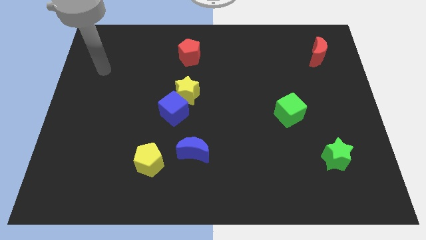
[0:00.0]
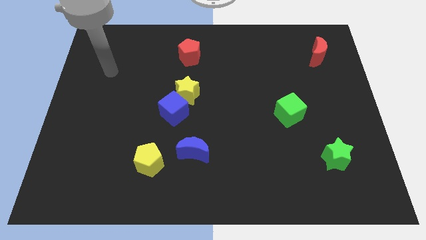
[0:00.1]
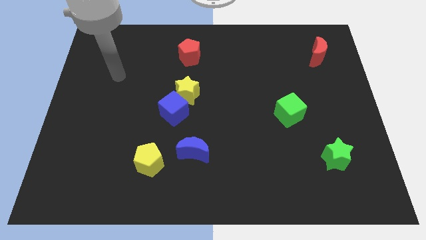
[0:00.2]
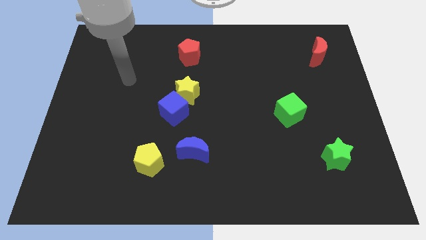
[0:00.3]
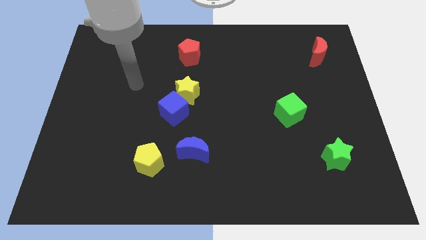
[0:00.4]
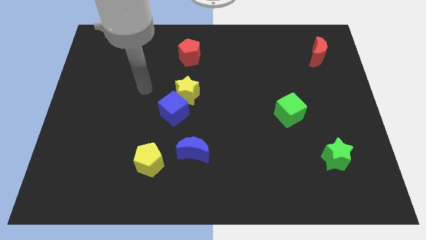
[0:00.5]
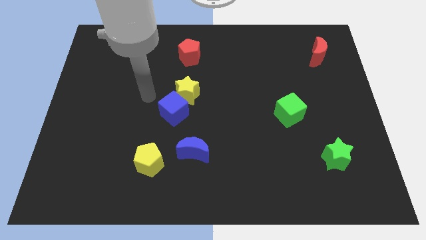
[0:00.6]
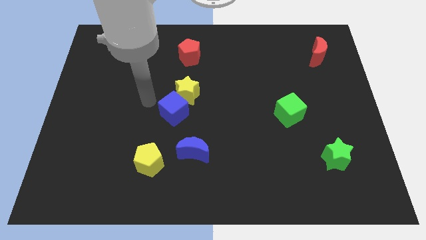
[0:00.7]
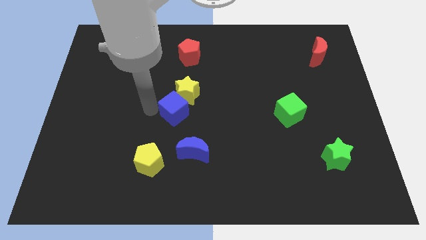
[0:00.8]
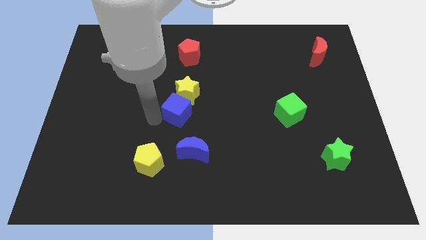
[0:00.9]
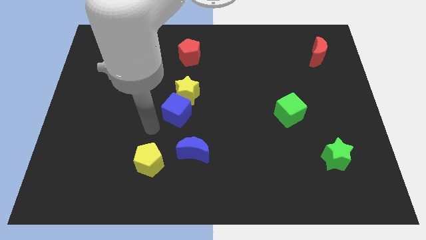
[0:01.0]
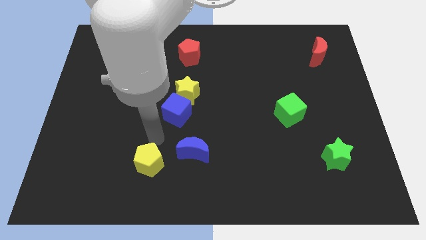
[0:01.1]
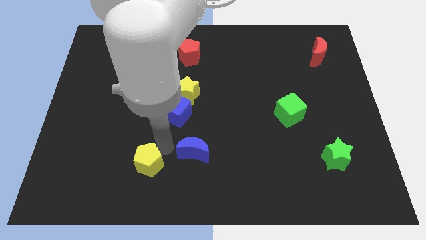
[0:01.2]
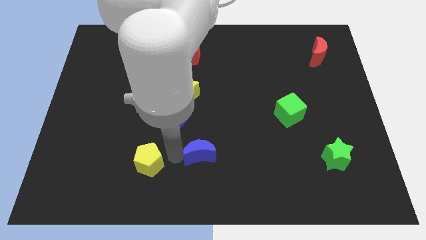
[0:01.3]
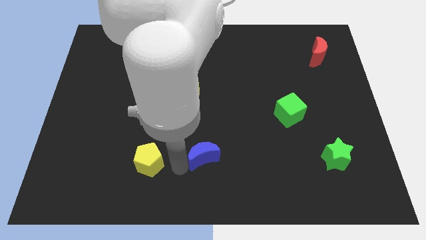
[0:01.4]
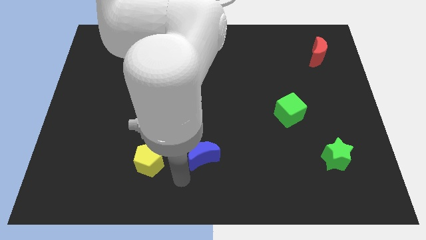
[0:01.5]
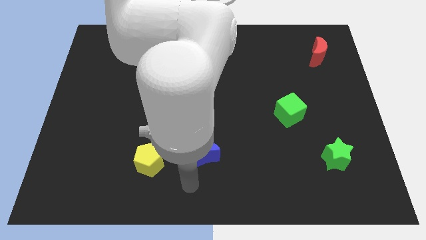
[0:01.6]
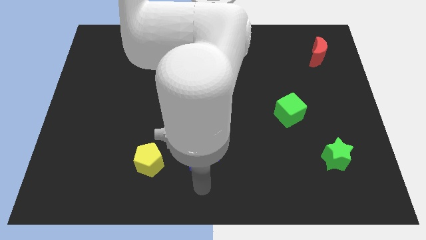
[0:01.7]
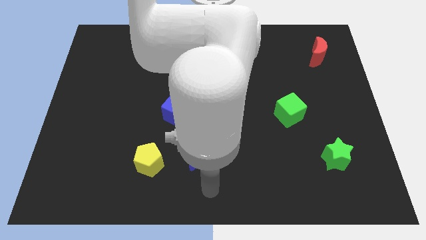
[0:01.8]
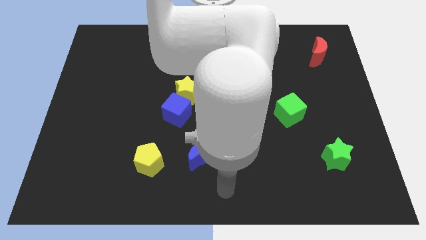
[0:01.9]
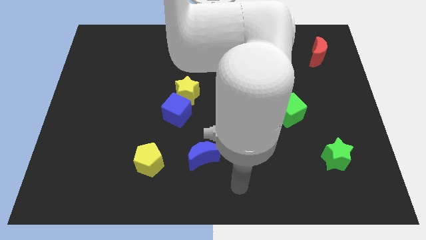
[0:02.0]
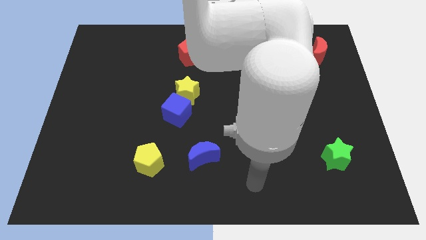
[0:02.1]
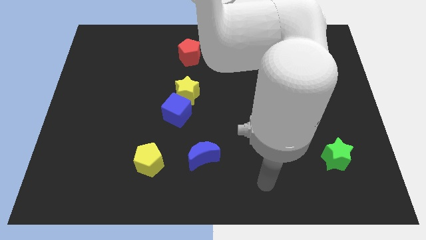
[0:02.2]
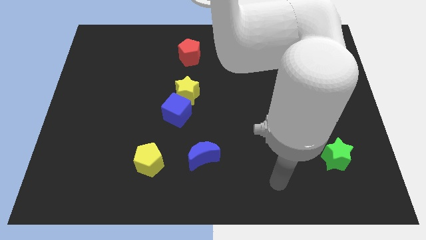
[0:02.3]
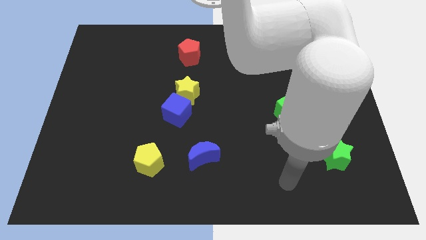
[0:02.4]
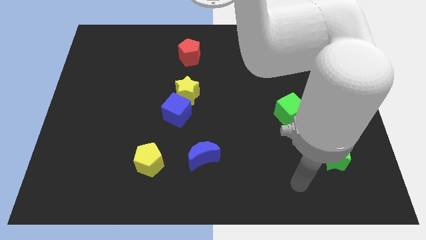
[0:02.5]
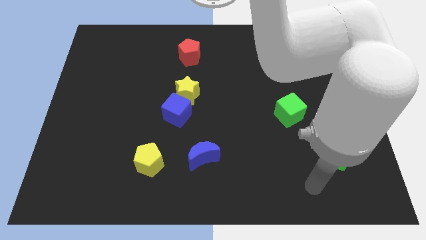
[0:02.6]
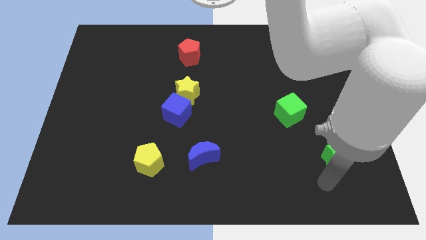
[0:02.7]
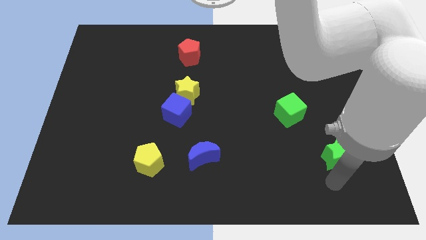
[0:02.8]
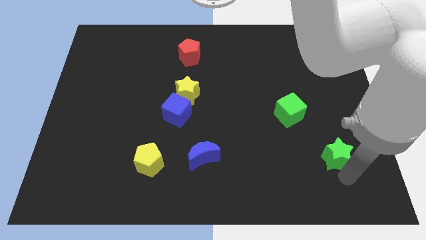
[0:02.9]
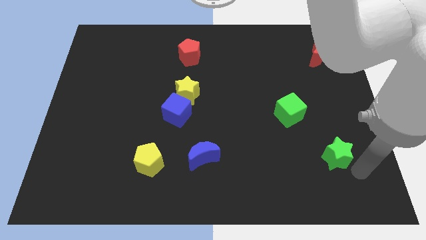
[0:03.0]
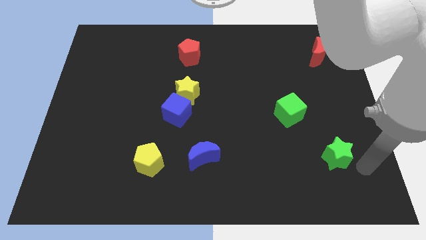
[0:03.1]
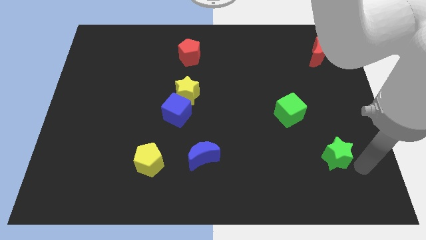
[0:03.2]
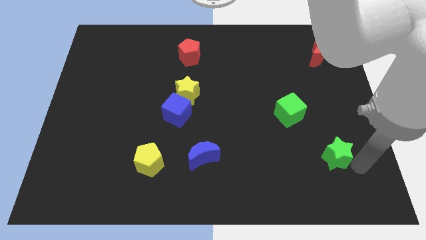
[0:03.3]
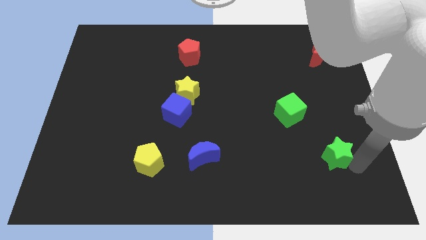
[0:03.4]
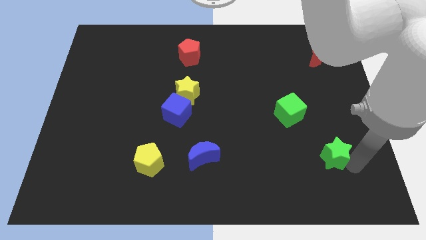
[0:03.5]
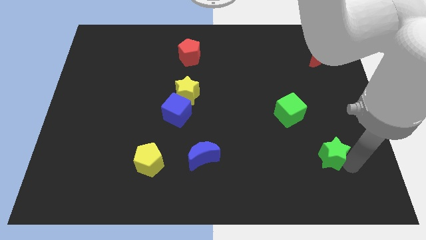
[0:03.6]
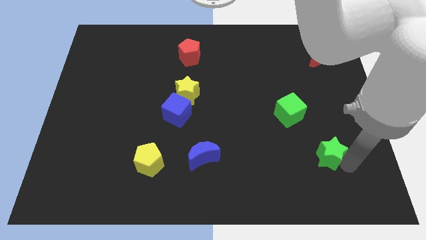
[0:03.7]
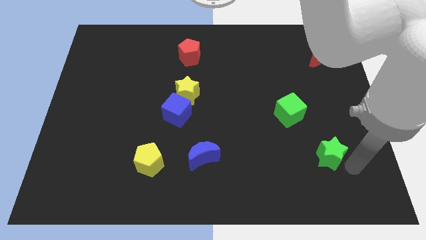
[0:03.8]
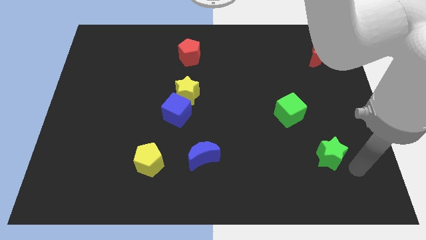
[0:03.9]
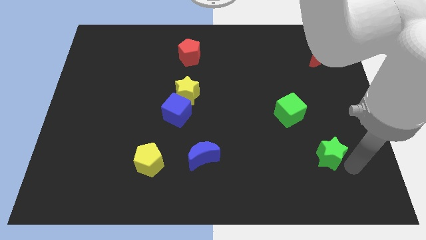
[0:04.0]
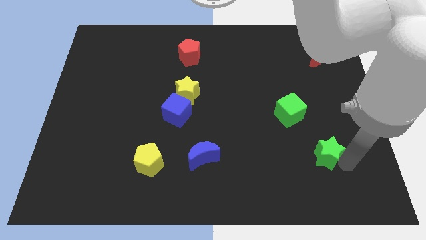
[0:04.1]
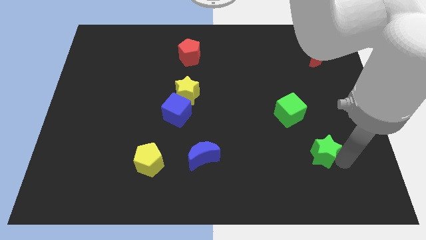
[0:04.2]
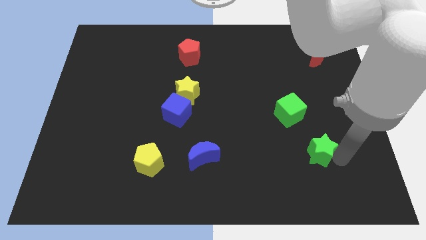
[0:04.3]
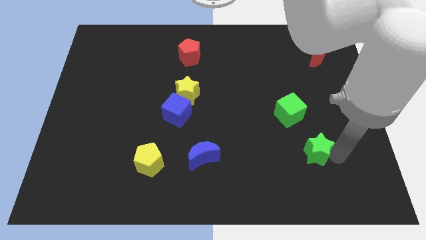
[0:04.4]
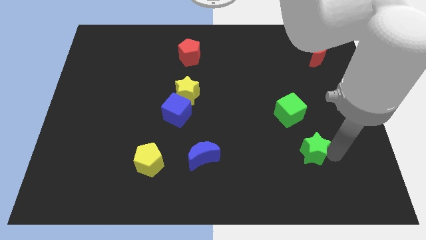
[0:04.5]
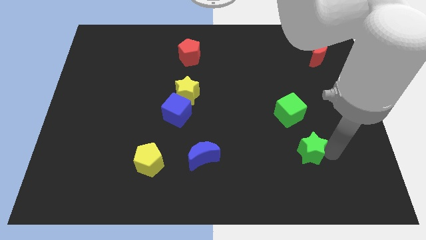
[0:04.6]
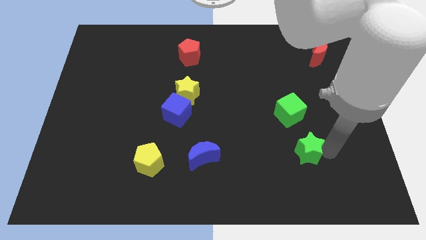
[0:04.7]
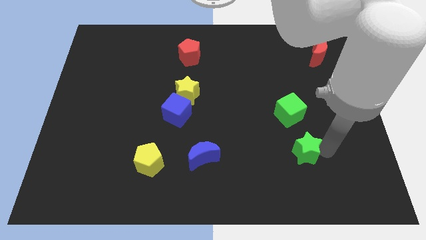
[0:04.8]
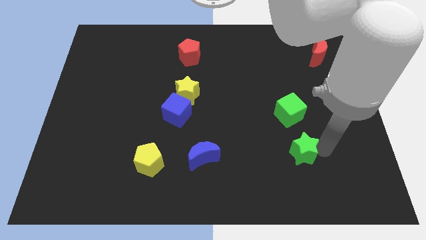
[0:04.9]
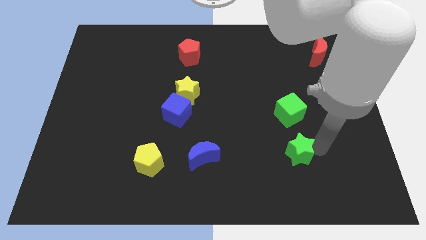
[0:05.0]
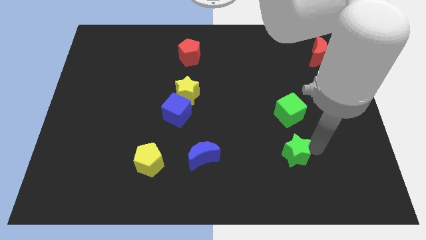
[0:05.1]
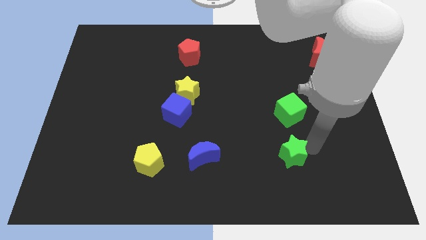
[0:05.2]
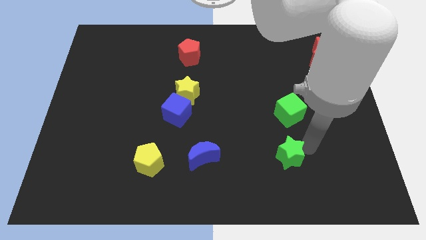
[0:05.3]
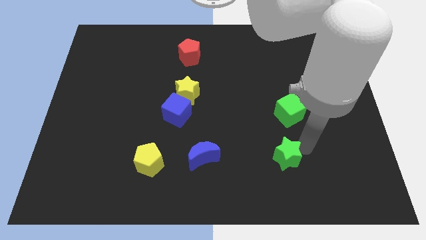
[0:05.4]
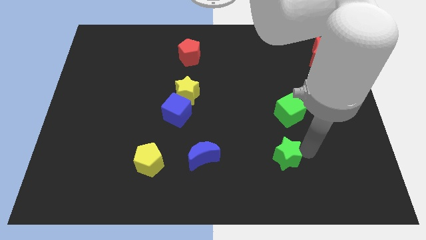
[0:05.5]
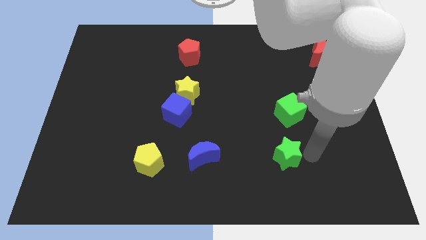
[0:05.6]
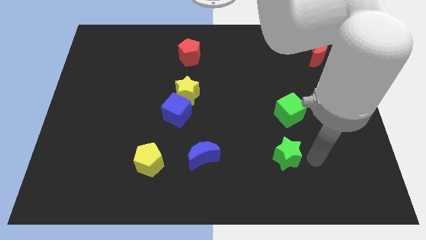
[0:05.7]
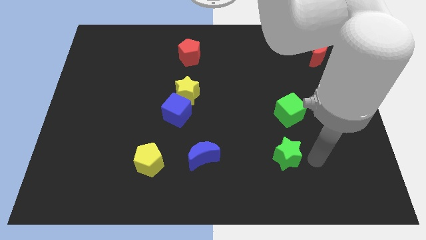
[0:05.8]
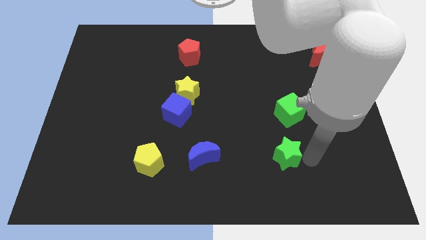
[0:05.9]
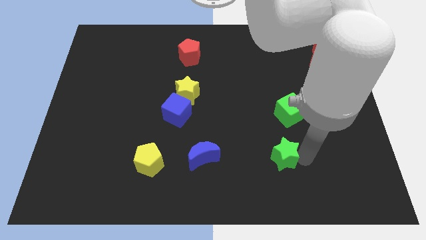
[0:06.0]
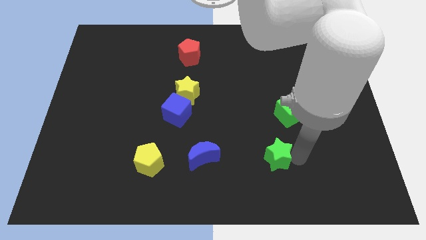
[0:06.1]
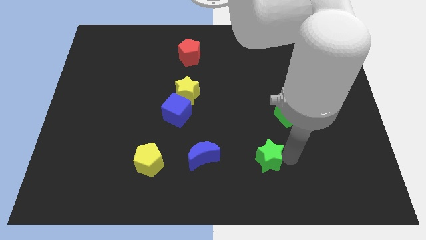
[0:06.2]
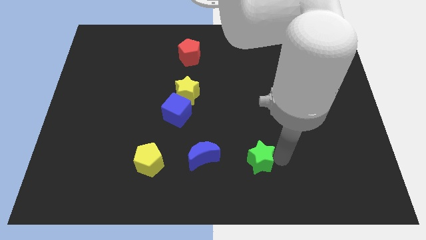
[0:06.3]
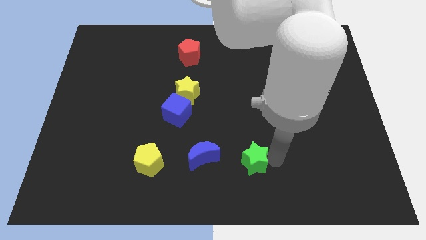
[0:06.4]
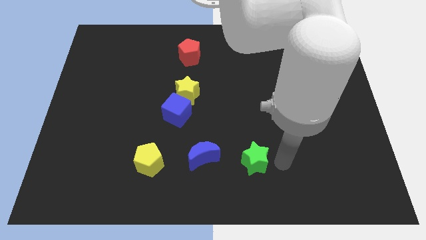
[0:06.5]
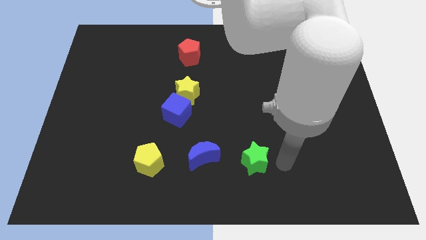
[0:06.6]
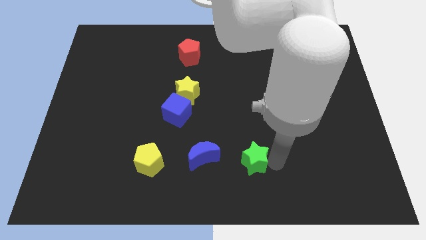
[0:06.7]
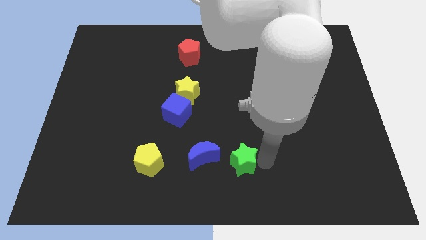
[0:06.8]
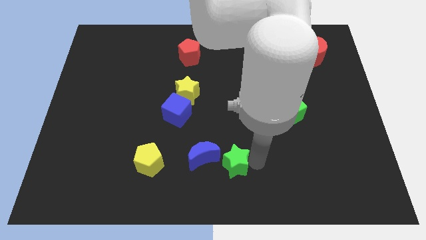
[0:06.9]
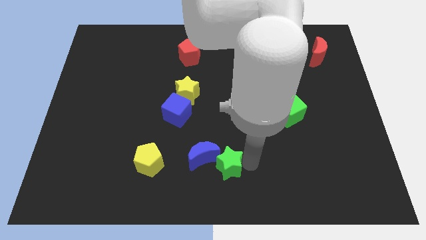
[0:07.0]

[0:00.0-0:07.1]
slide the green star close to the blue moon
